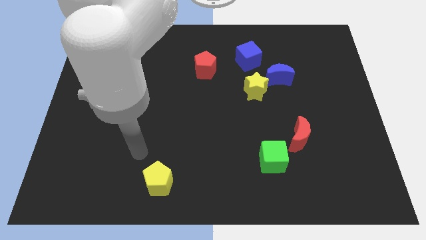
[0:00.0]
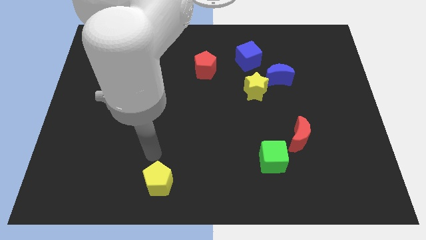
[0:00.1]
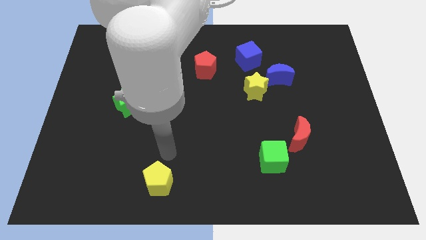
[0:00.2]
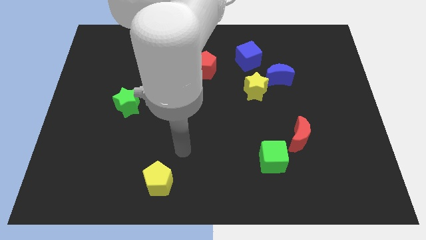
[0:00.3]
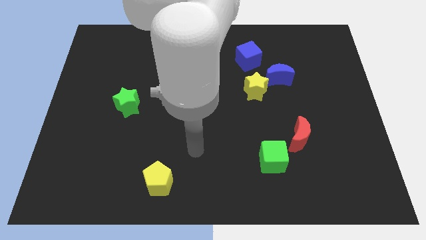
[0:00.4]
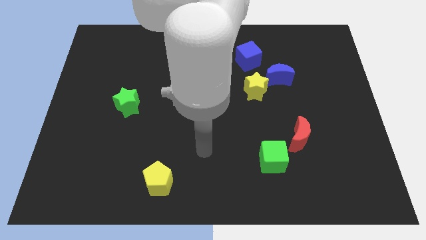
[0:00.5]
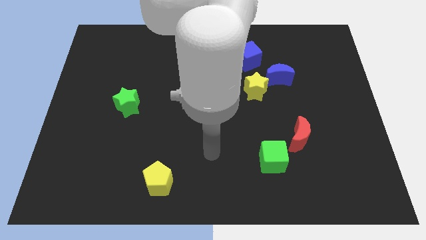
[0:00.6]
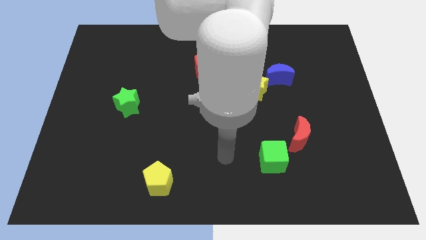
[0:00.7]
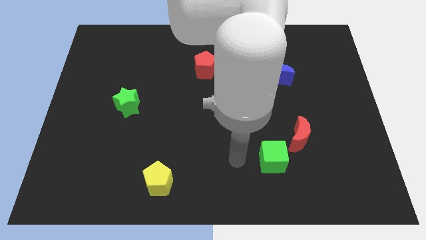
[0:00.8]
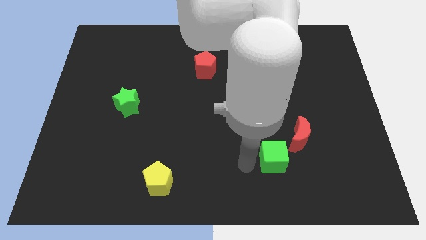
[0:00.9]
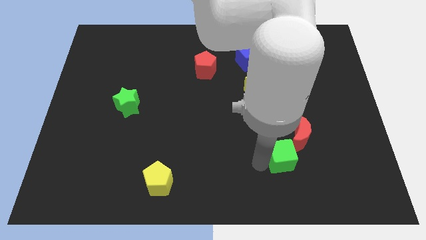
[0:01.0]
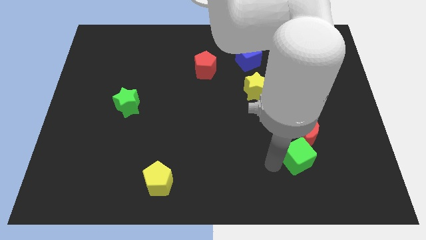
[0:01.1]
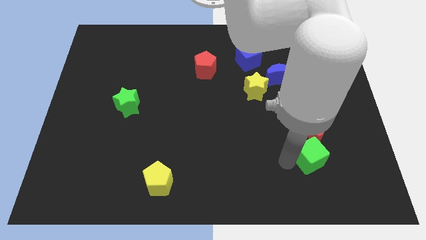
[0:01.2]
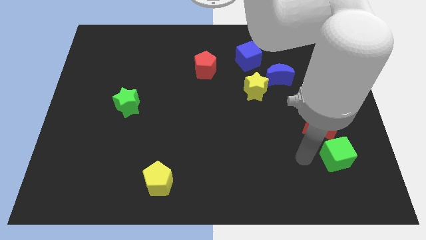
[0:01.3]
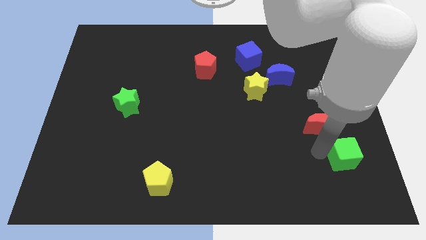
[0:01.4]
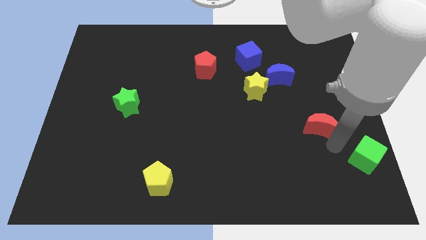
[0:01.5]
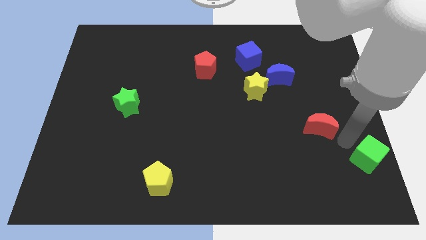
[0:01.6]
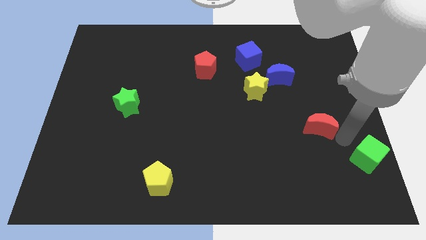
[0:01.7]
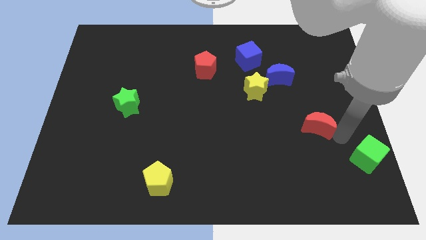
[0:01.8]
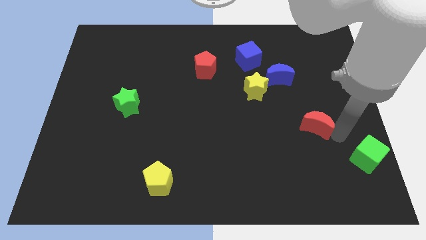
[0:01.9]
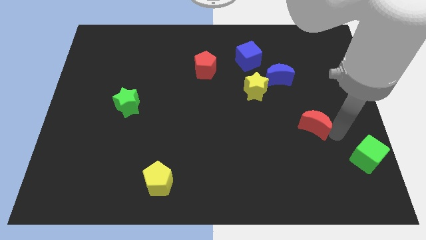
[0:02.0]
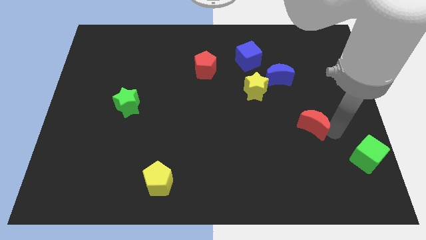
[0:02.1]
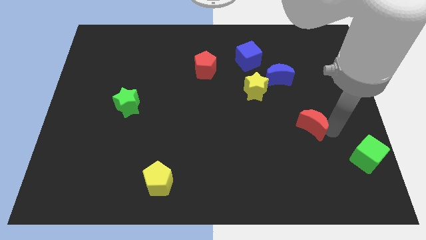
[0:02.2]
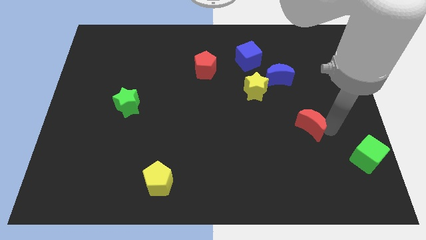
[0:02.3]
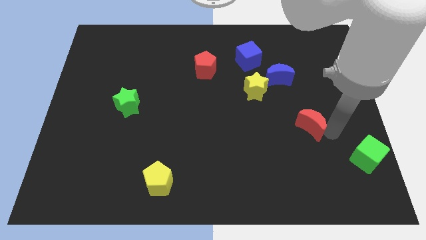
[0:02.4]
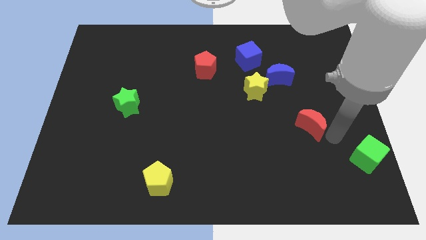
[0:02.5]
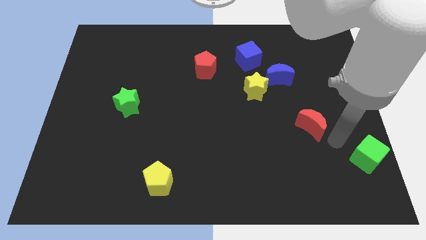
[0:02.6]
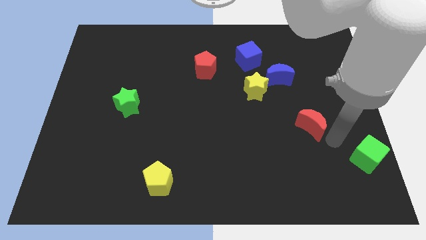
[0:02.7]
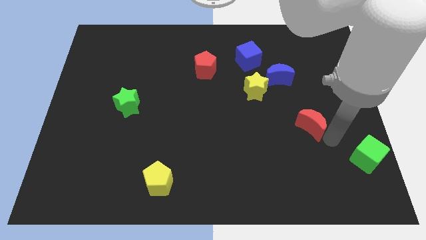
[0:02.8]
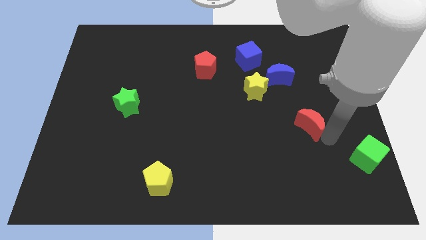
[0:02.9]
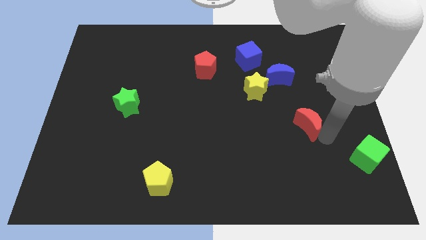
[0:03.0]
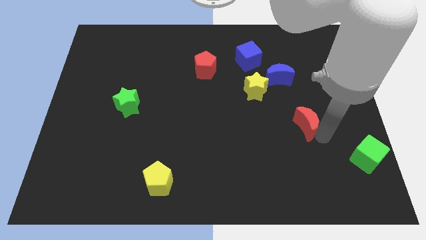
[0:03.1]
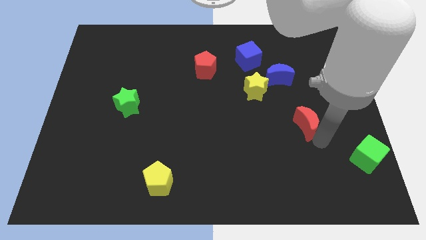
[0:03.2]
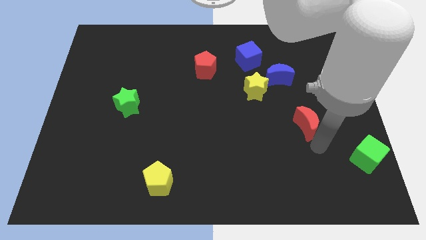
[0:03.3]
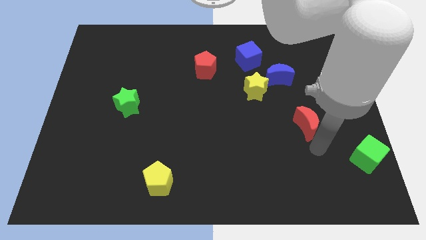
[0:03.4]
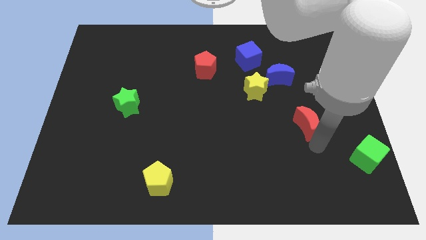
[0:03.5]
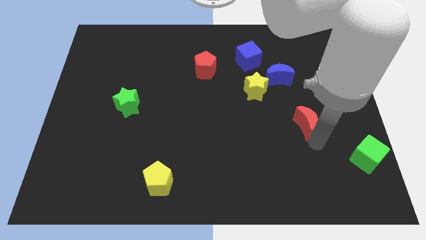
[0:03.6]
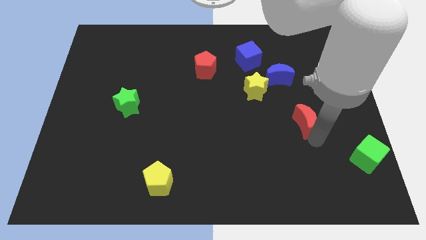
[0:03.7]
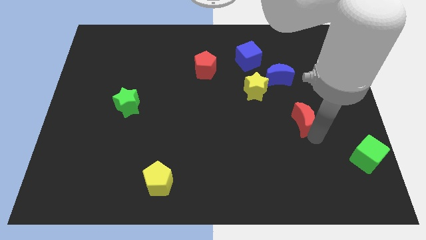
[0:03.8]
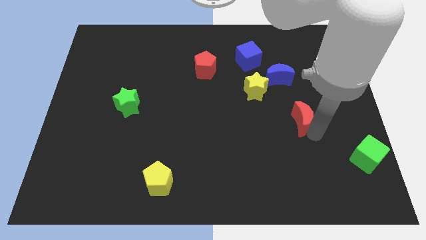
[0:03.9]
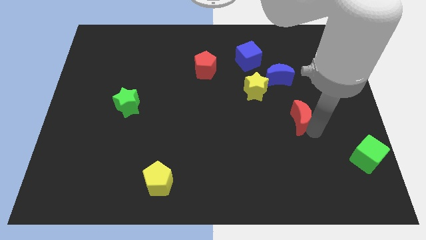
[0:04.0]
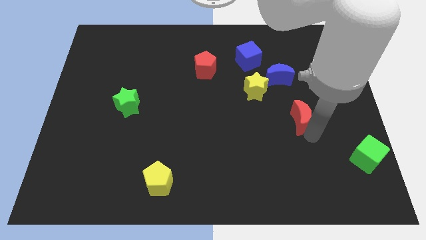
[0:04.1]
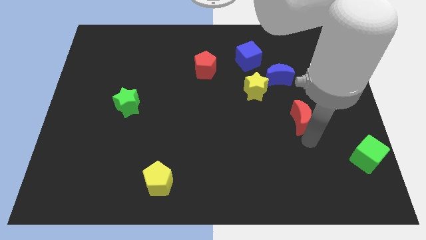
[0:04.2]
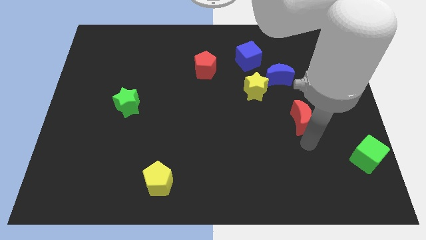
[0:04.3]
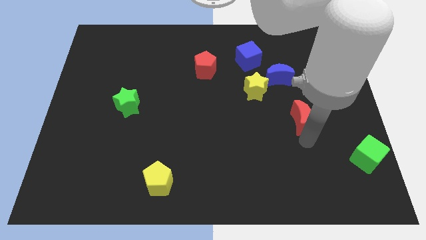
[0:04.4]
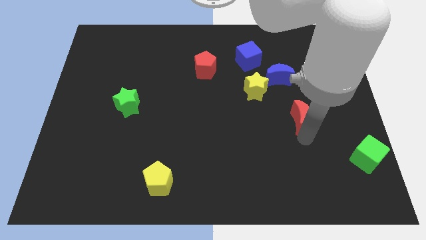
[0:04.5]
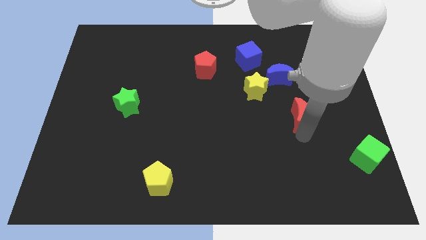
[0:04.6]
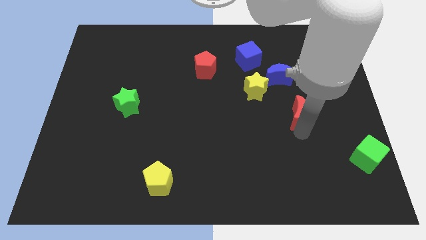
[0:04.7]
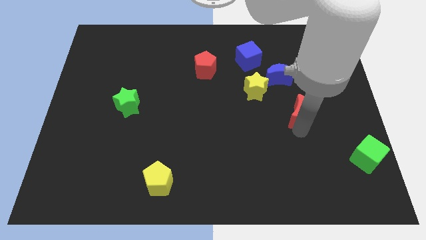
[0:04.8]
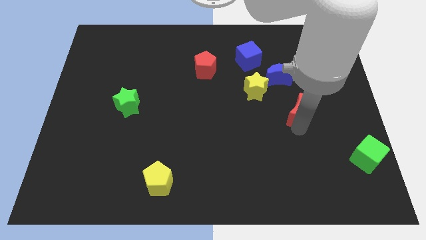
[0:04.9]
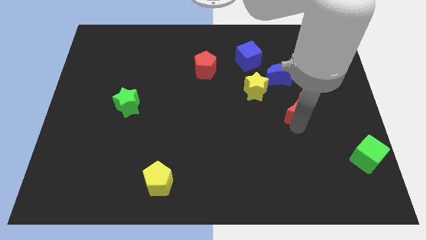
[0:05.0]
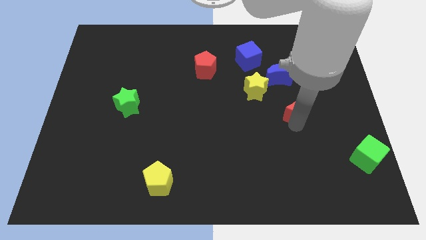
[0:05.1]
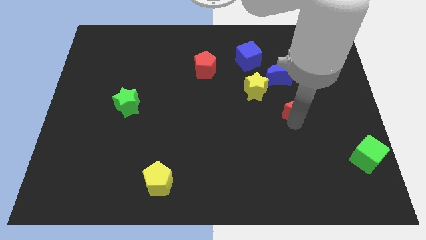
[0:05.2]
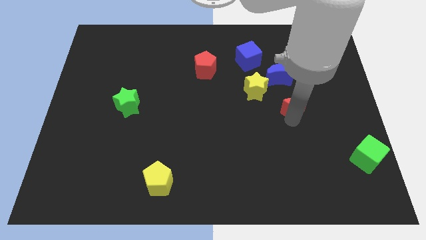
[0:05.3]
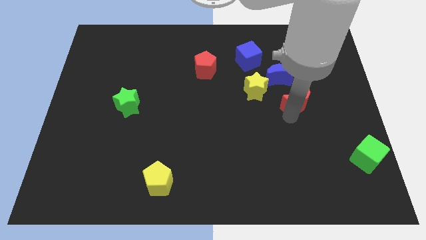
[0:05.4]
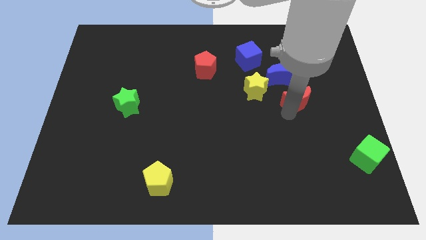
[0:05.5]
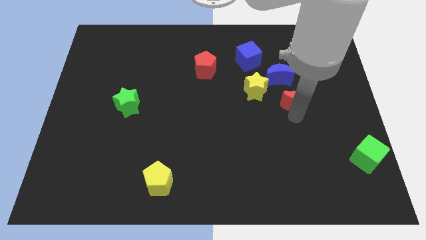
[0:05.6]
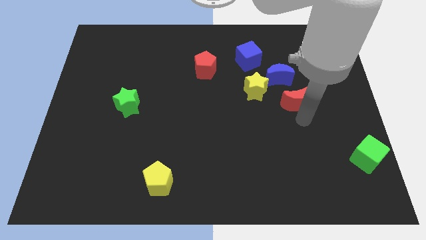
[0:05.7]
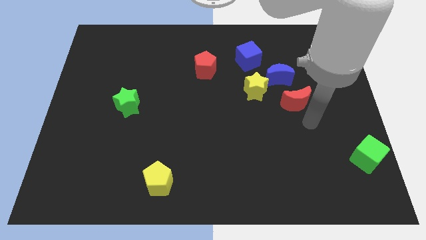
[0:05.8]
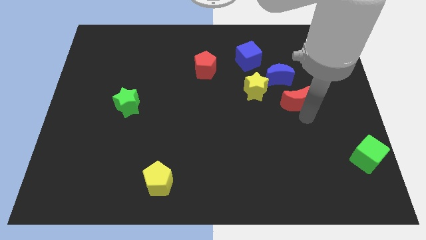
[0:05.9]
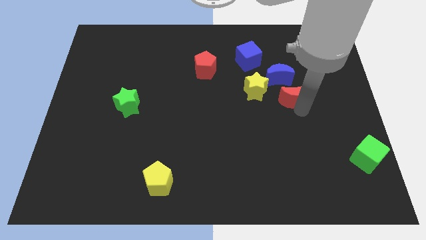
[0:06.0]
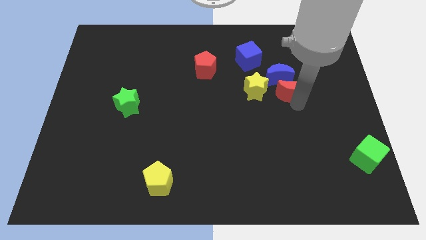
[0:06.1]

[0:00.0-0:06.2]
move the red moon to the blue moon

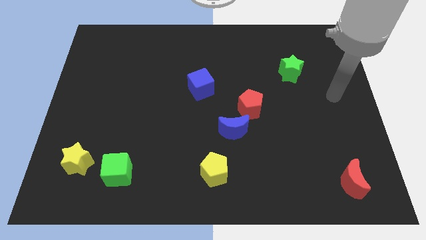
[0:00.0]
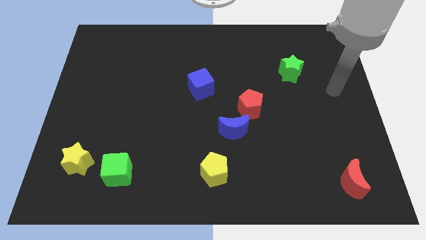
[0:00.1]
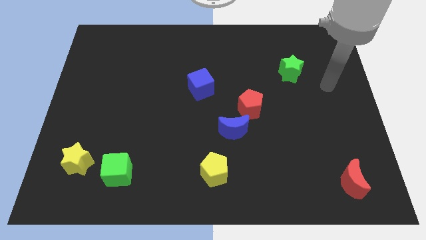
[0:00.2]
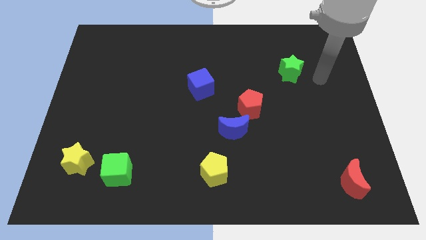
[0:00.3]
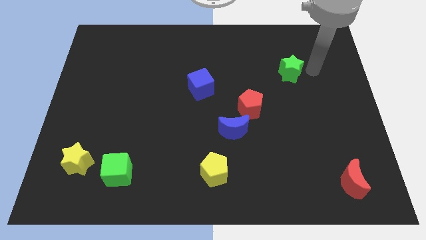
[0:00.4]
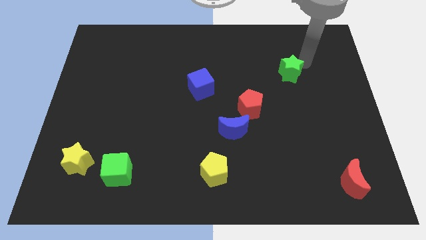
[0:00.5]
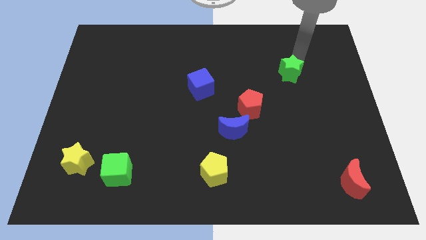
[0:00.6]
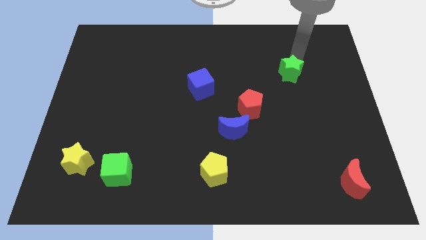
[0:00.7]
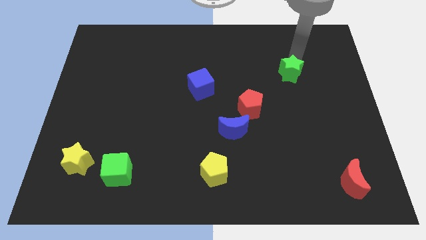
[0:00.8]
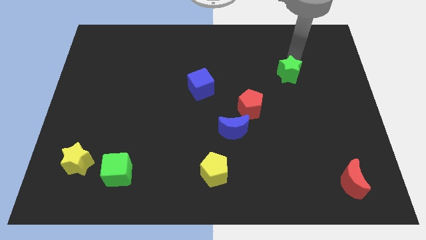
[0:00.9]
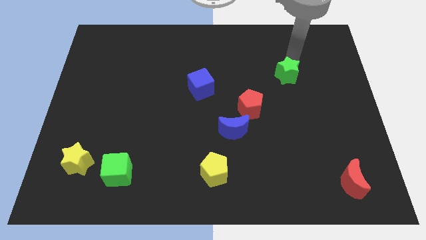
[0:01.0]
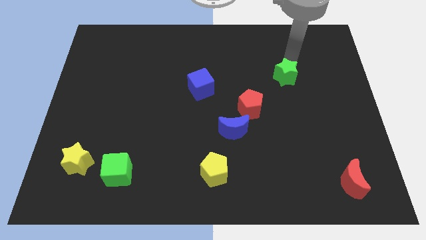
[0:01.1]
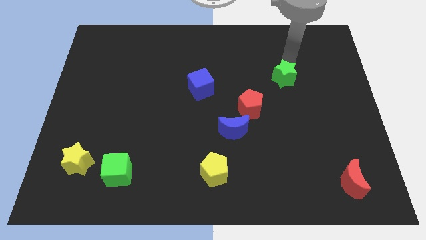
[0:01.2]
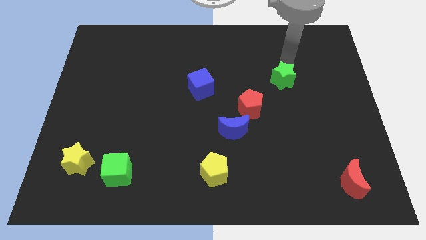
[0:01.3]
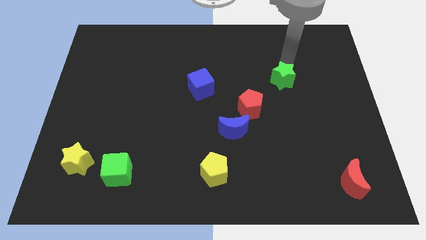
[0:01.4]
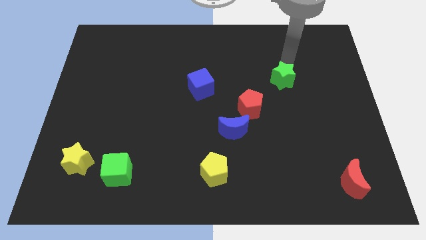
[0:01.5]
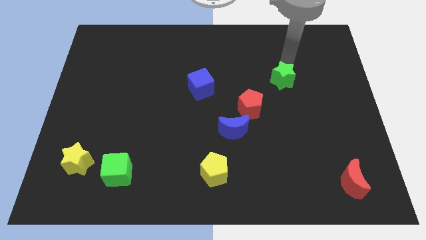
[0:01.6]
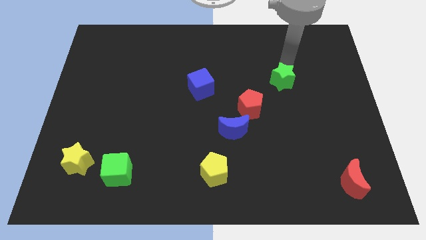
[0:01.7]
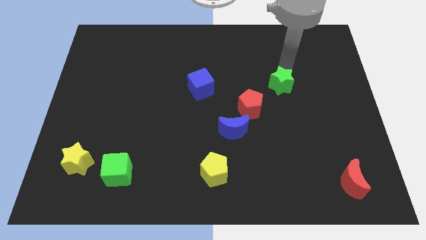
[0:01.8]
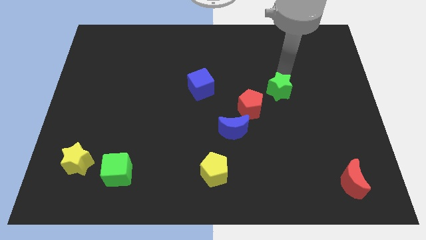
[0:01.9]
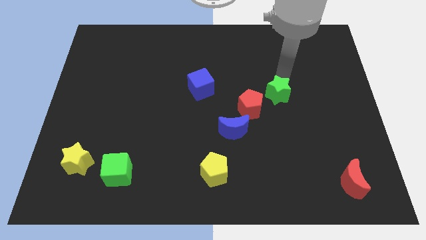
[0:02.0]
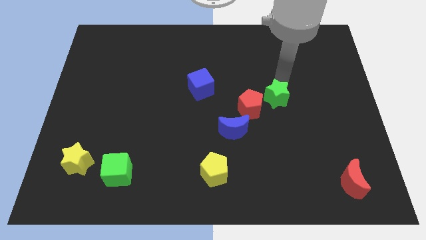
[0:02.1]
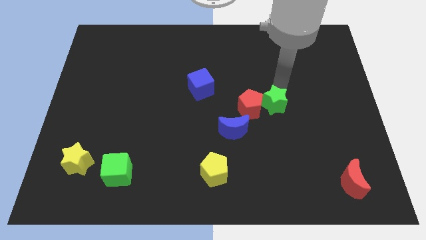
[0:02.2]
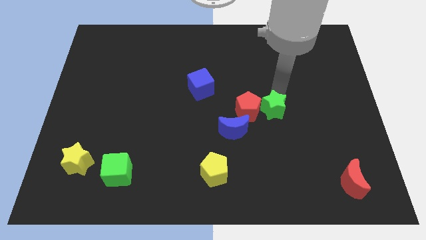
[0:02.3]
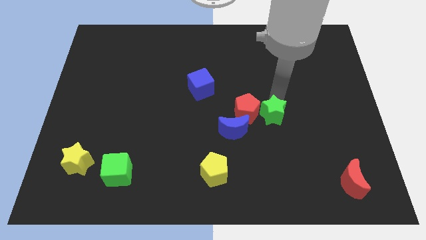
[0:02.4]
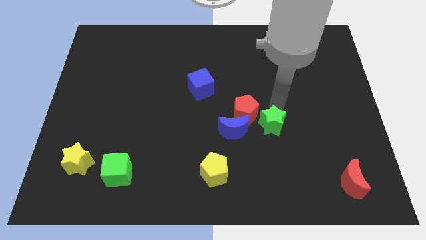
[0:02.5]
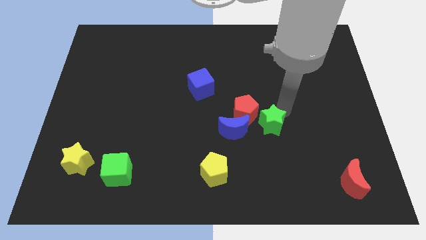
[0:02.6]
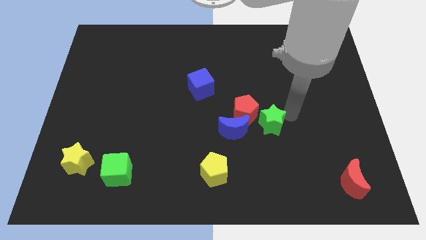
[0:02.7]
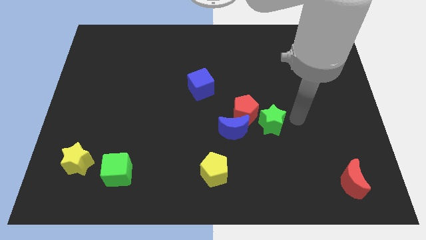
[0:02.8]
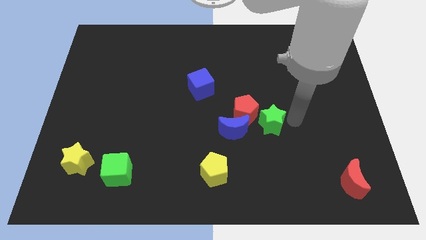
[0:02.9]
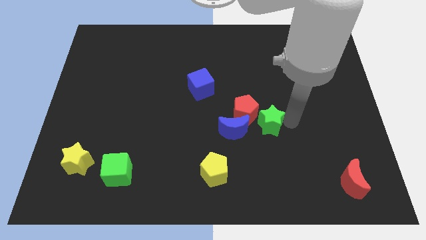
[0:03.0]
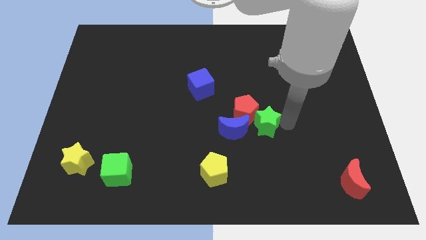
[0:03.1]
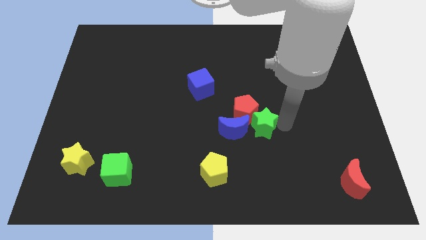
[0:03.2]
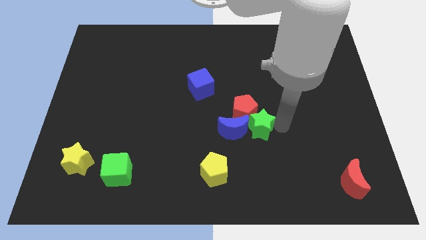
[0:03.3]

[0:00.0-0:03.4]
push the green star towards the blue moon
